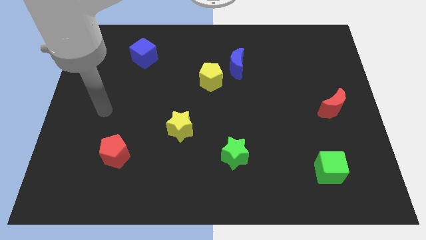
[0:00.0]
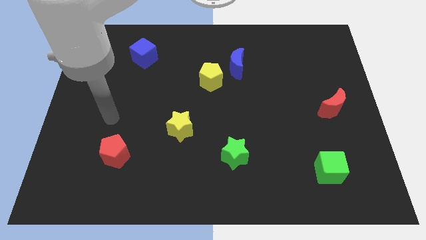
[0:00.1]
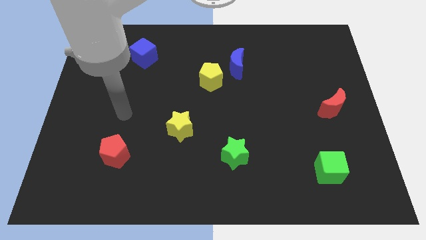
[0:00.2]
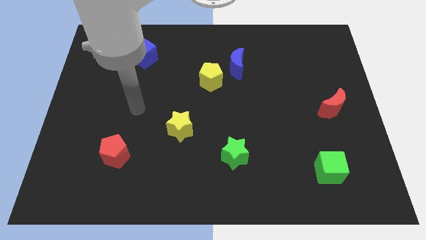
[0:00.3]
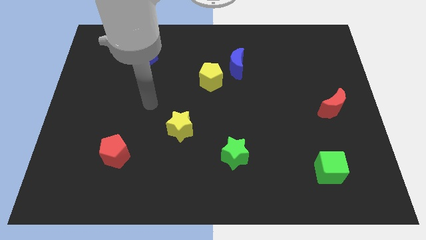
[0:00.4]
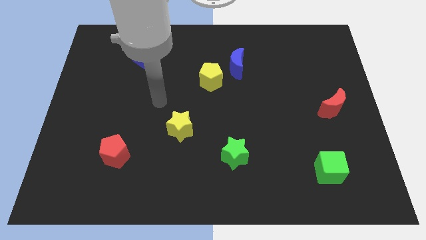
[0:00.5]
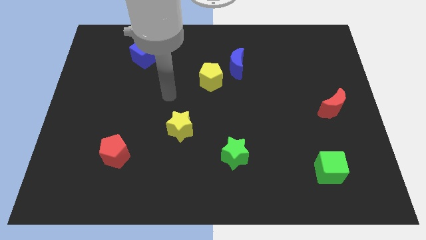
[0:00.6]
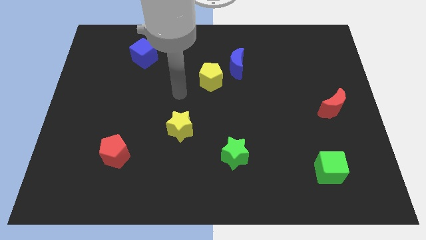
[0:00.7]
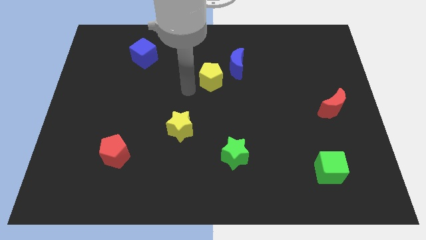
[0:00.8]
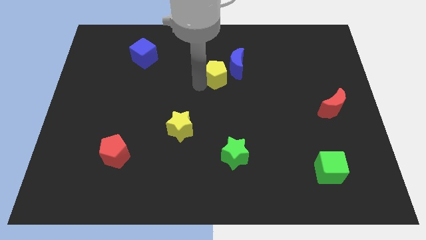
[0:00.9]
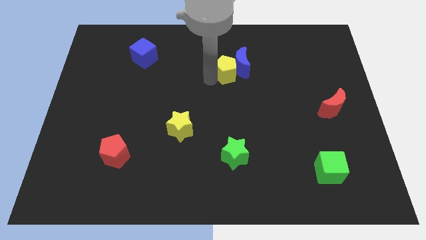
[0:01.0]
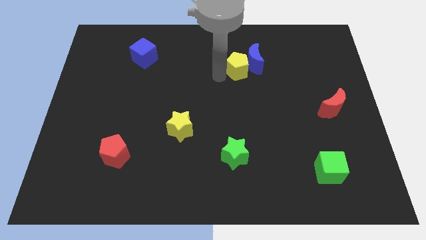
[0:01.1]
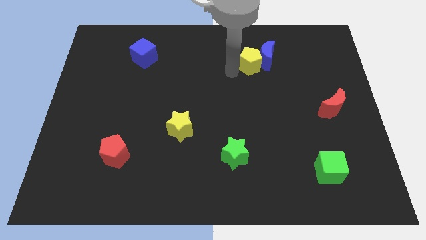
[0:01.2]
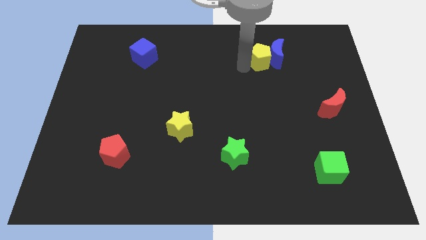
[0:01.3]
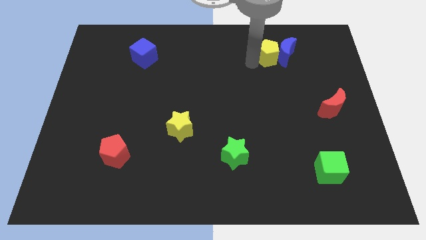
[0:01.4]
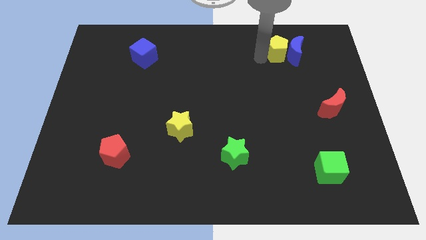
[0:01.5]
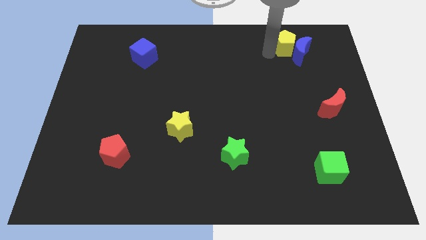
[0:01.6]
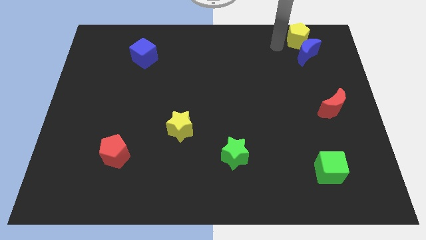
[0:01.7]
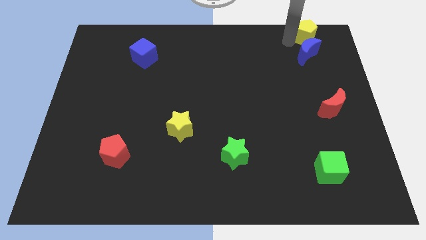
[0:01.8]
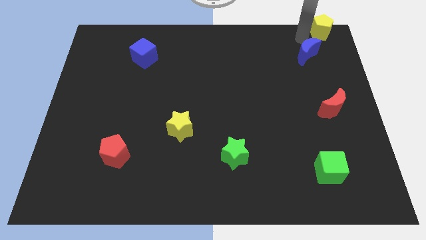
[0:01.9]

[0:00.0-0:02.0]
separate the blue moon from the yellow pentagon

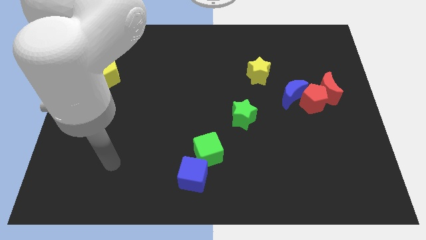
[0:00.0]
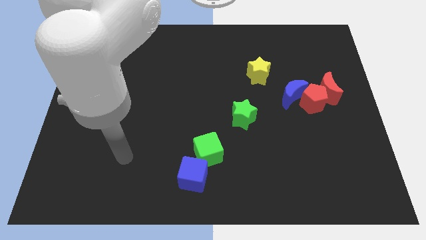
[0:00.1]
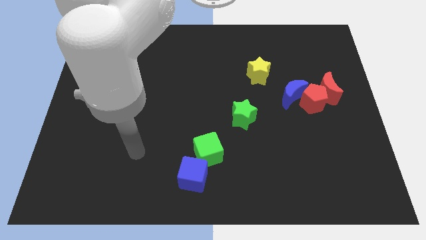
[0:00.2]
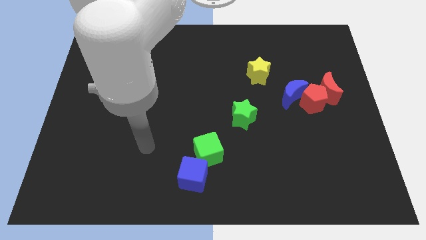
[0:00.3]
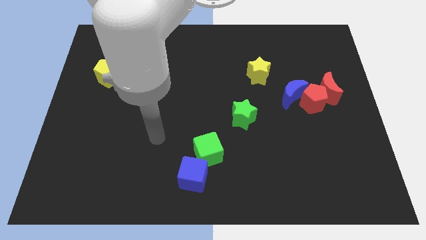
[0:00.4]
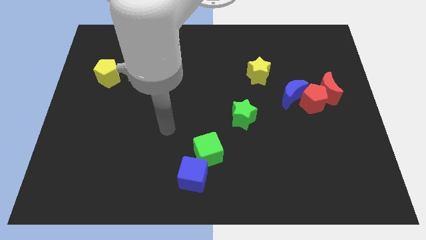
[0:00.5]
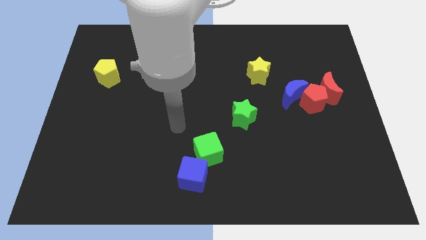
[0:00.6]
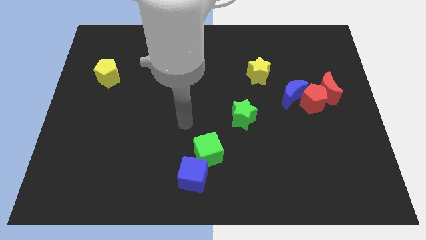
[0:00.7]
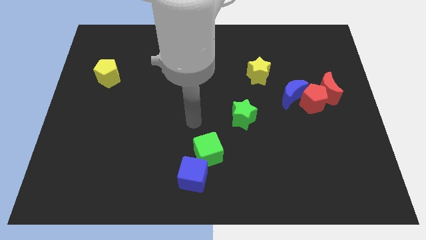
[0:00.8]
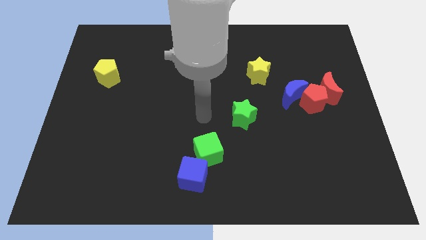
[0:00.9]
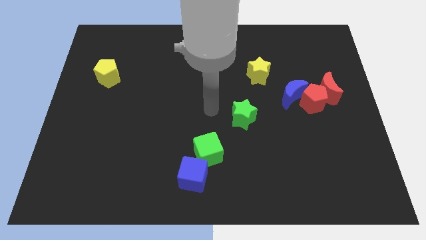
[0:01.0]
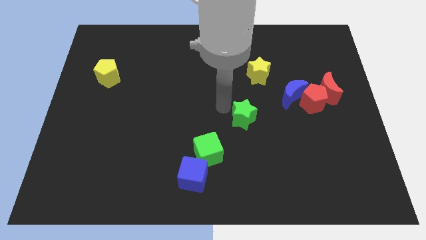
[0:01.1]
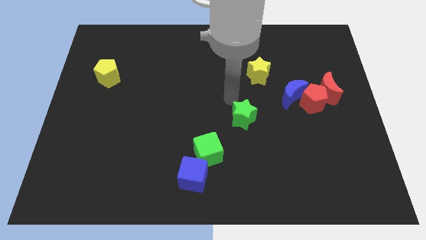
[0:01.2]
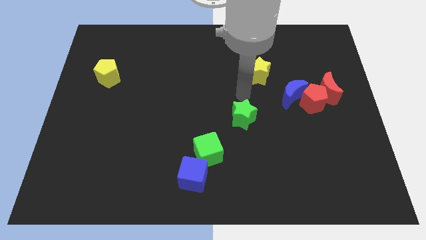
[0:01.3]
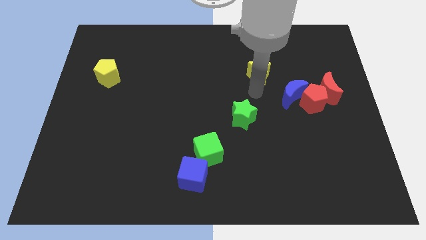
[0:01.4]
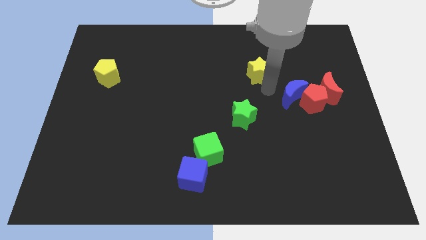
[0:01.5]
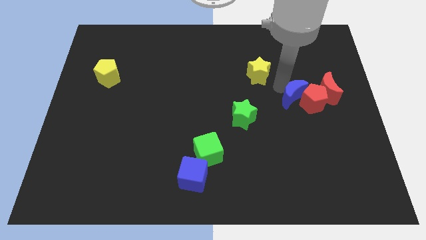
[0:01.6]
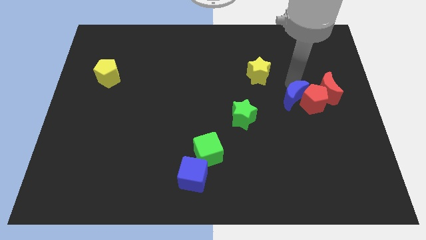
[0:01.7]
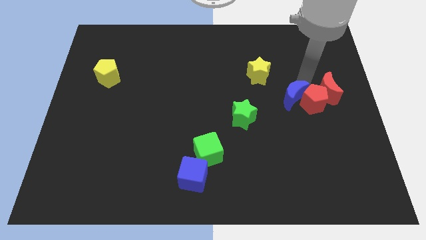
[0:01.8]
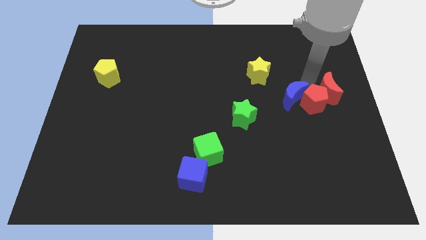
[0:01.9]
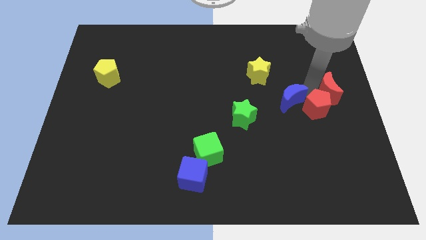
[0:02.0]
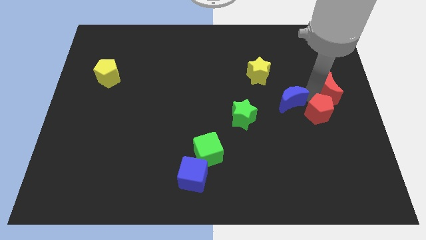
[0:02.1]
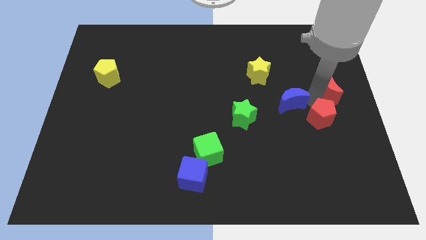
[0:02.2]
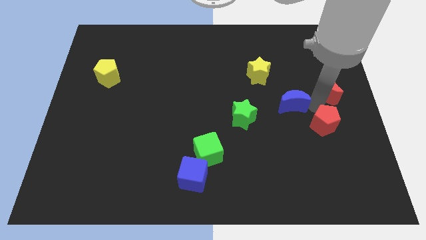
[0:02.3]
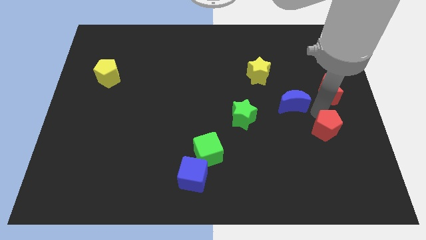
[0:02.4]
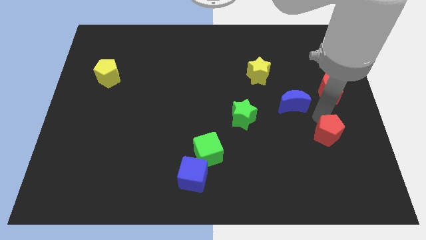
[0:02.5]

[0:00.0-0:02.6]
separate the red pentagon from the red moon and blue moon

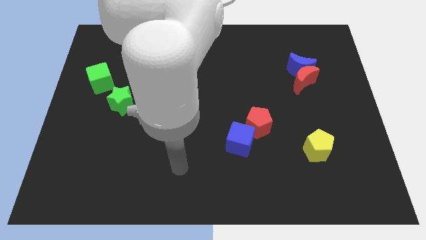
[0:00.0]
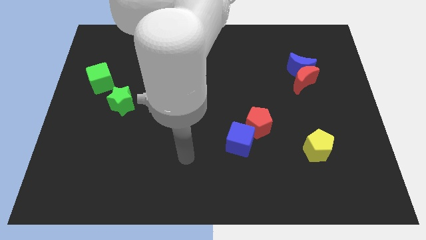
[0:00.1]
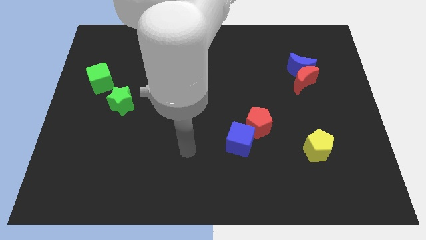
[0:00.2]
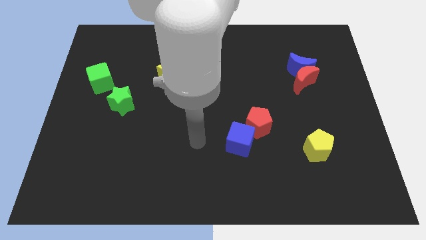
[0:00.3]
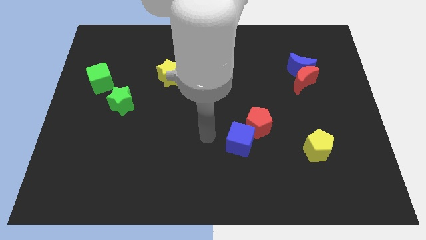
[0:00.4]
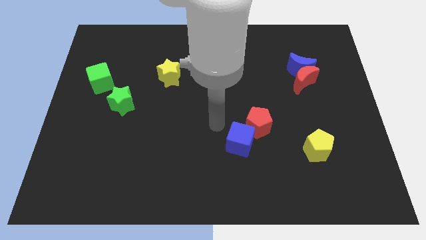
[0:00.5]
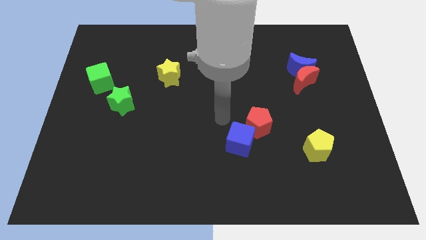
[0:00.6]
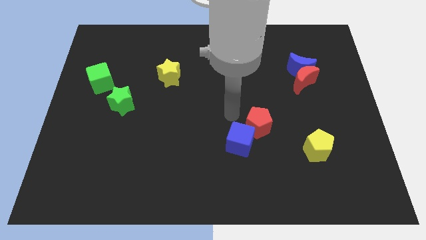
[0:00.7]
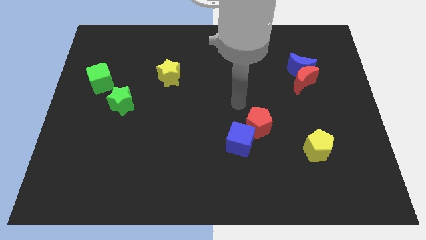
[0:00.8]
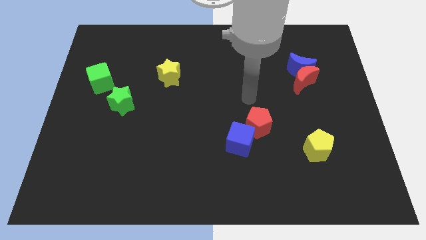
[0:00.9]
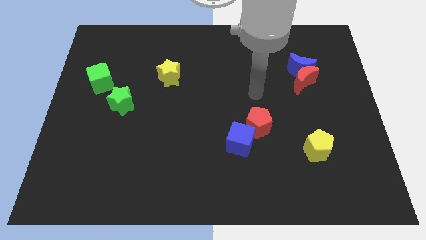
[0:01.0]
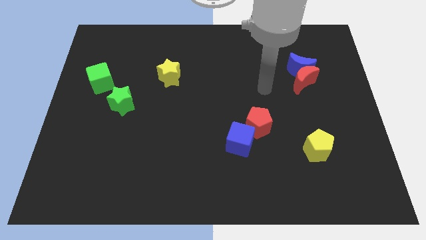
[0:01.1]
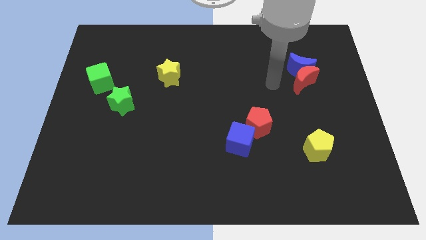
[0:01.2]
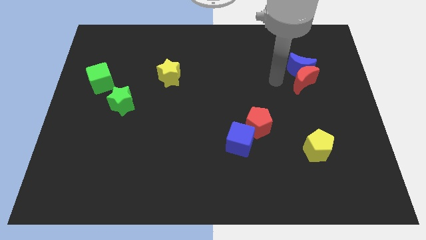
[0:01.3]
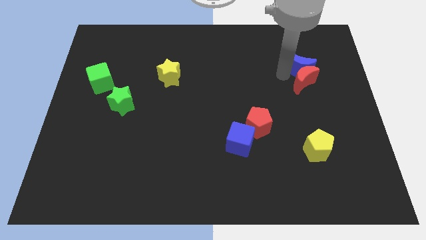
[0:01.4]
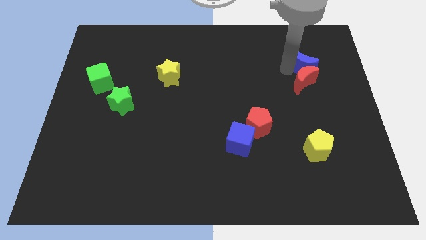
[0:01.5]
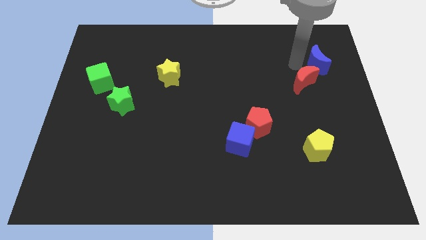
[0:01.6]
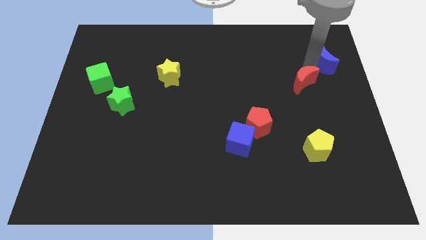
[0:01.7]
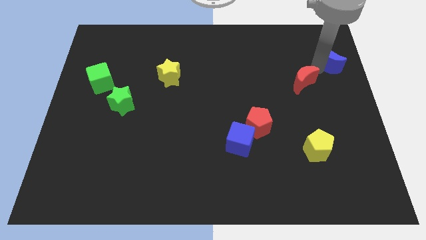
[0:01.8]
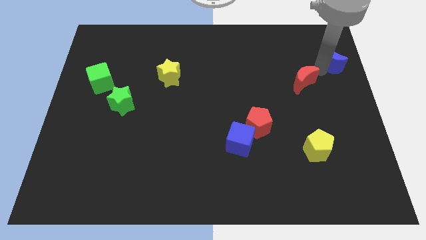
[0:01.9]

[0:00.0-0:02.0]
separate the red moon from the blue moon

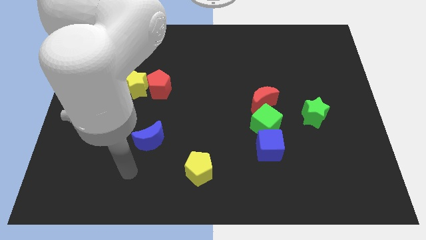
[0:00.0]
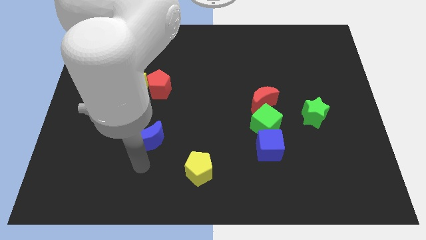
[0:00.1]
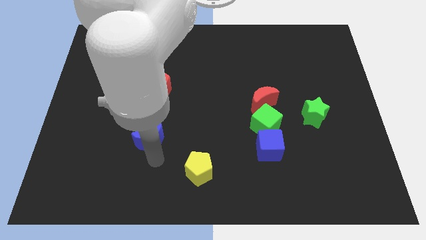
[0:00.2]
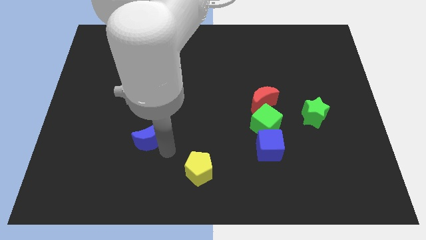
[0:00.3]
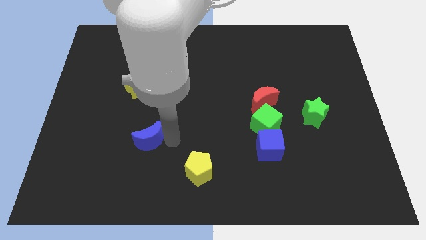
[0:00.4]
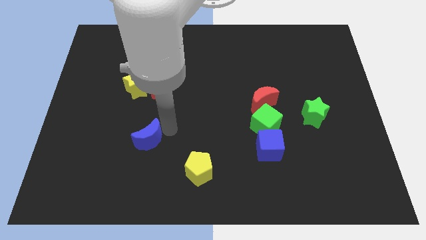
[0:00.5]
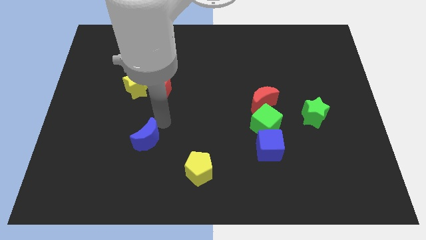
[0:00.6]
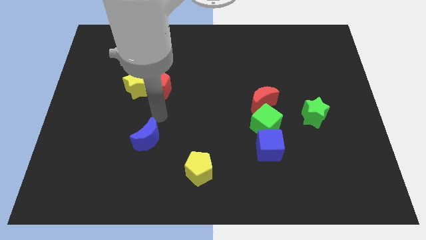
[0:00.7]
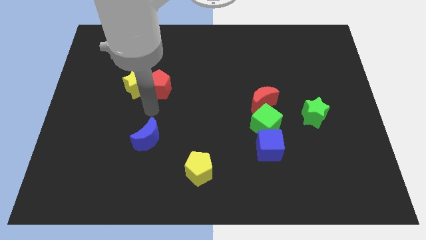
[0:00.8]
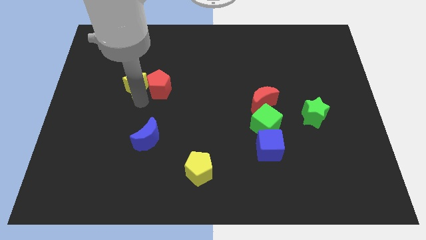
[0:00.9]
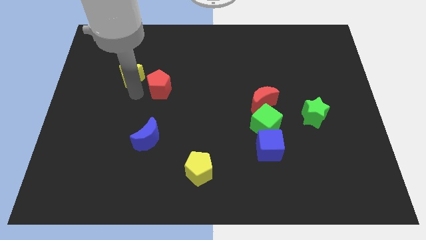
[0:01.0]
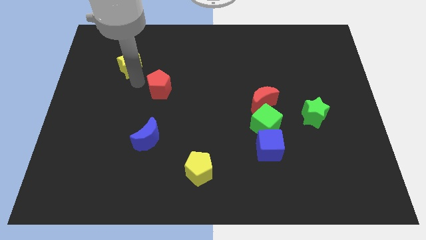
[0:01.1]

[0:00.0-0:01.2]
pull the red pentagon apart from the yellow star

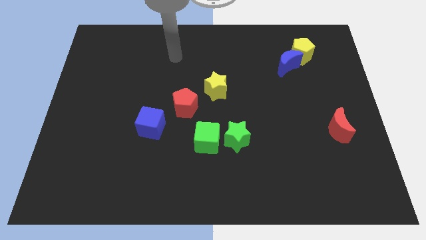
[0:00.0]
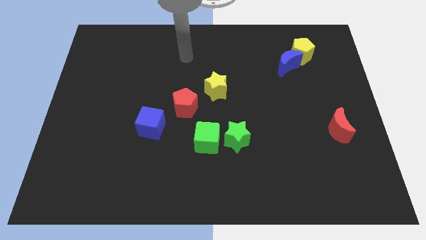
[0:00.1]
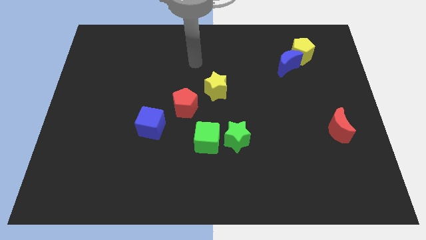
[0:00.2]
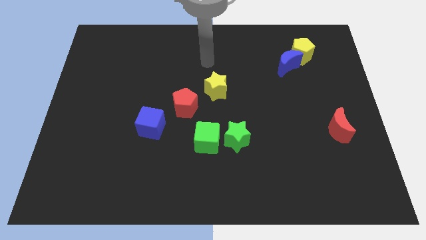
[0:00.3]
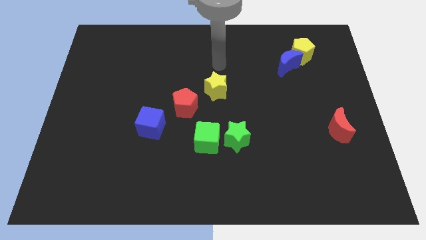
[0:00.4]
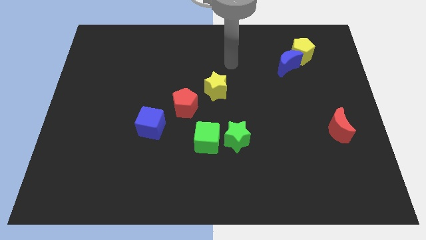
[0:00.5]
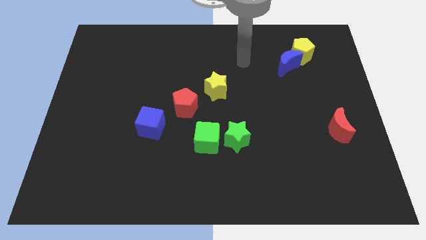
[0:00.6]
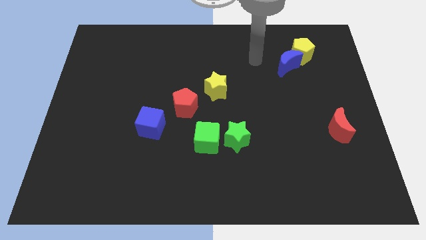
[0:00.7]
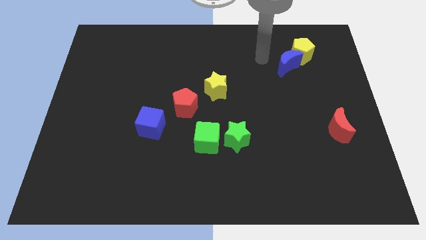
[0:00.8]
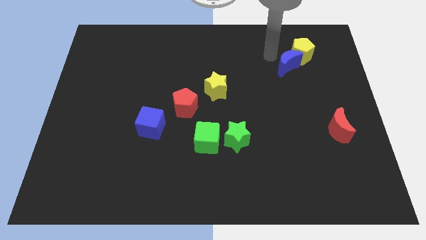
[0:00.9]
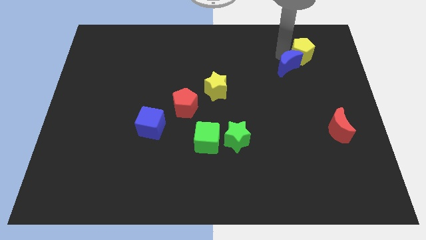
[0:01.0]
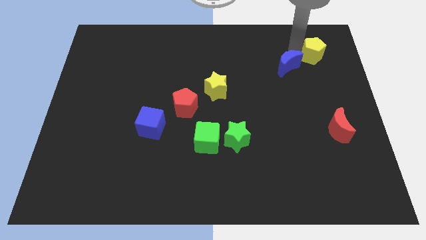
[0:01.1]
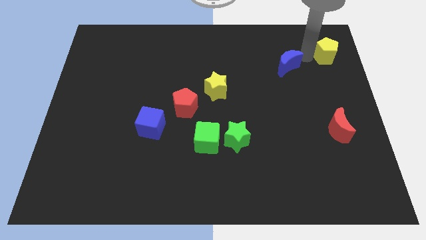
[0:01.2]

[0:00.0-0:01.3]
pull the blue moon apart from the yellow pentagon

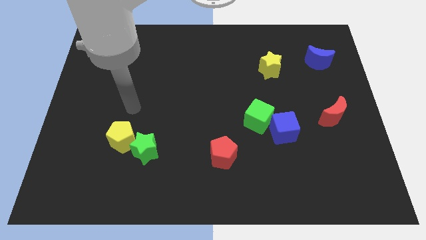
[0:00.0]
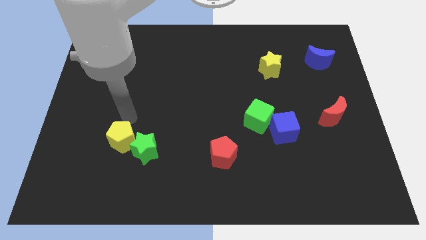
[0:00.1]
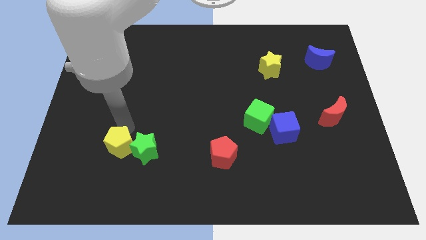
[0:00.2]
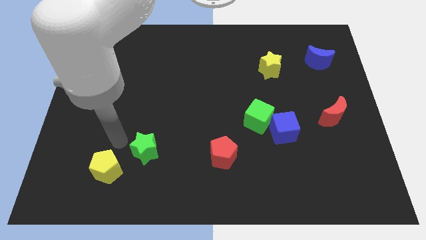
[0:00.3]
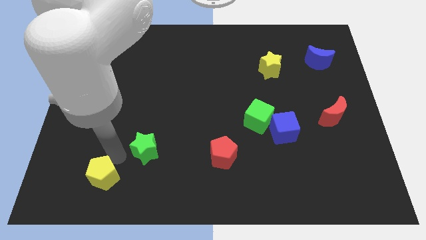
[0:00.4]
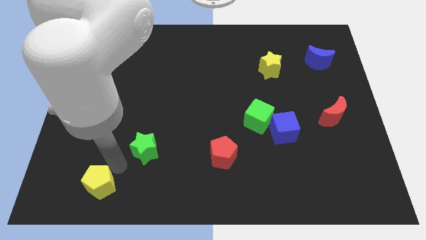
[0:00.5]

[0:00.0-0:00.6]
move the green star away from the yellow pentagon
